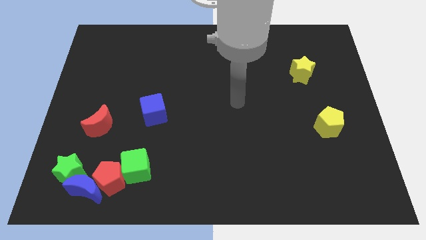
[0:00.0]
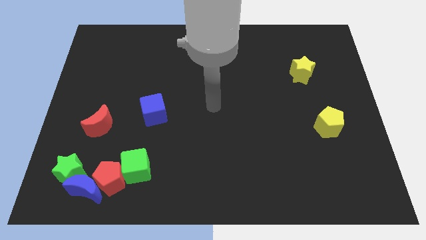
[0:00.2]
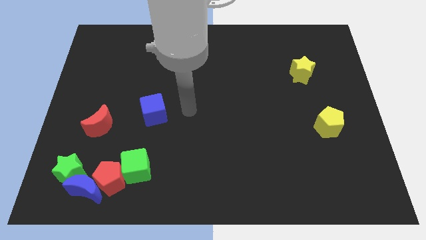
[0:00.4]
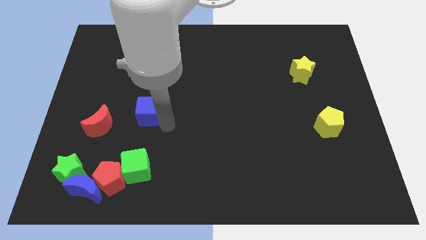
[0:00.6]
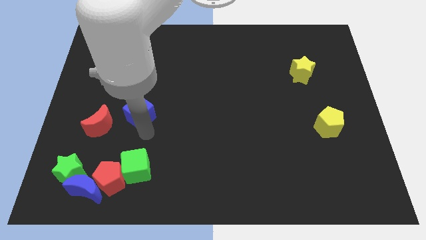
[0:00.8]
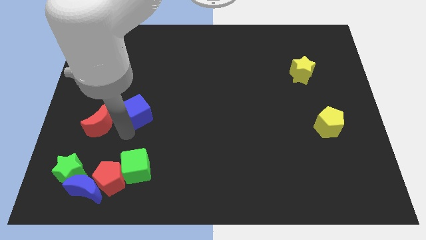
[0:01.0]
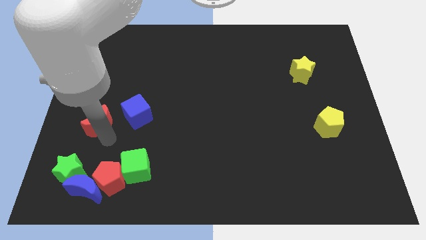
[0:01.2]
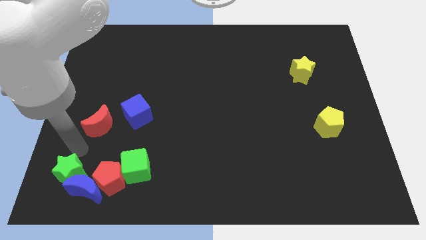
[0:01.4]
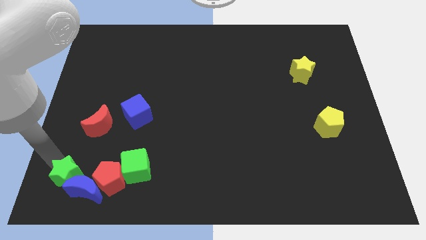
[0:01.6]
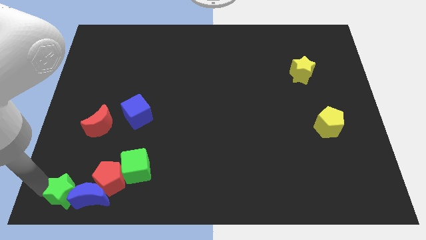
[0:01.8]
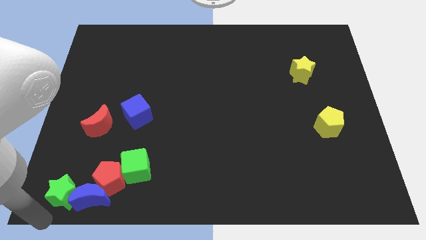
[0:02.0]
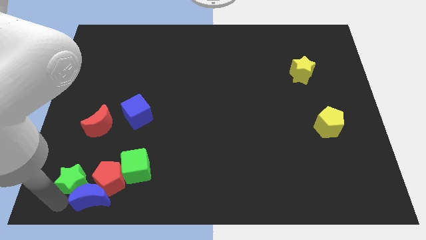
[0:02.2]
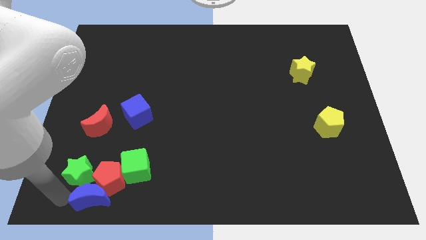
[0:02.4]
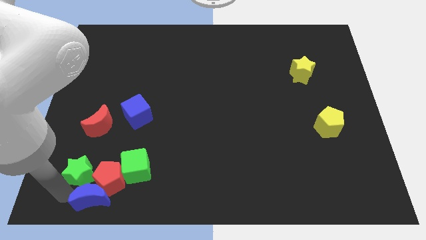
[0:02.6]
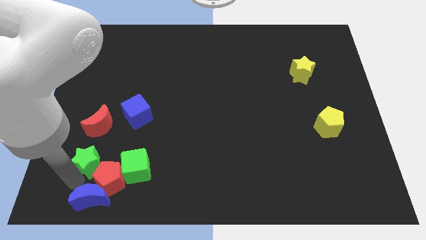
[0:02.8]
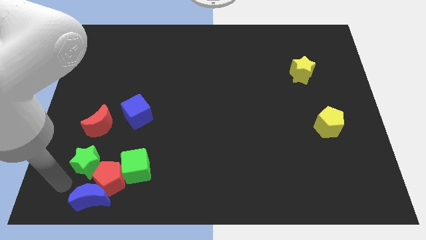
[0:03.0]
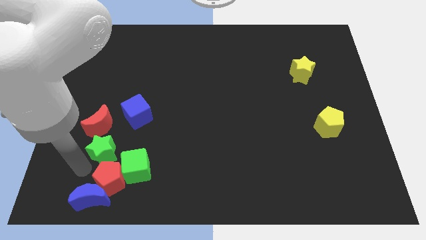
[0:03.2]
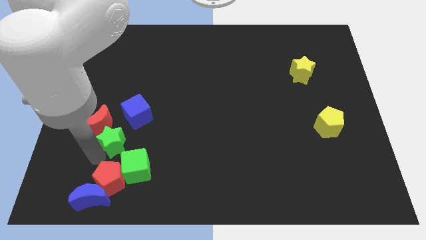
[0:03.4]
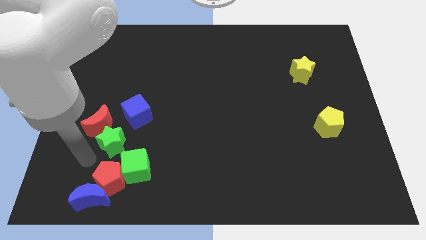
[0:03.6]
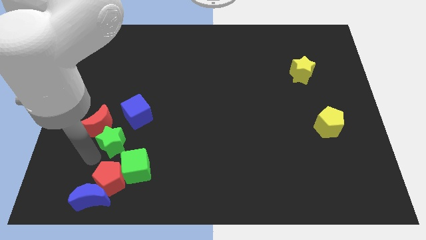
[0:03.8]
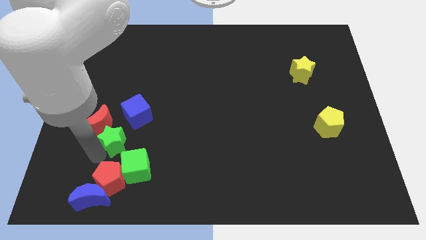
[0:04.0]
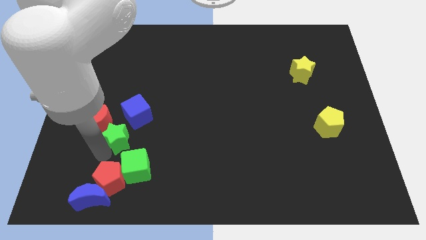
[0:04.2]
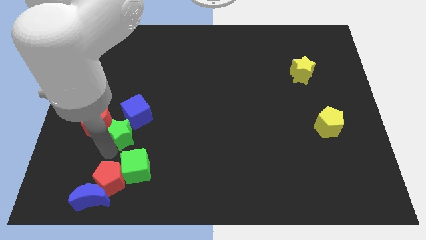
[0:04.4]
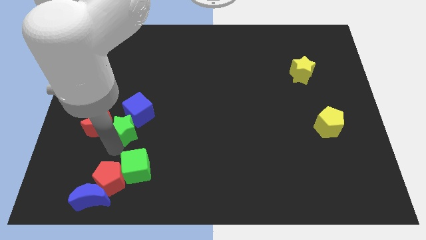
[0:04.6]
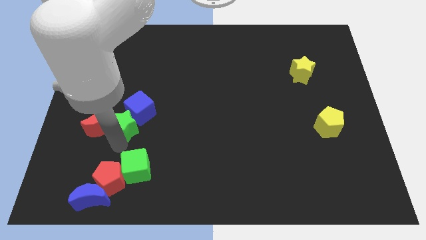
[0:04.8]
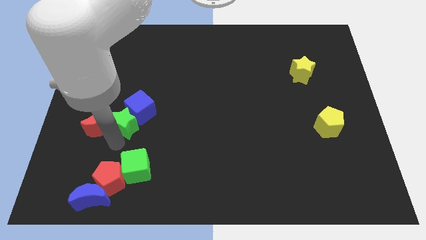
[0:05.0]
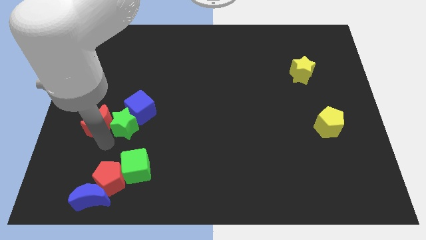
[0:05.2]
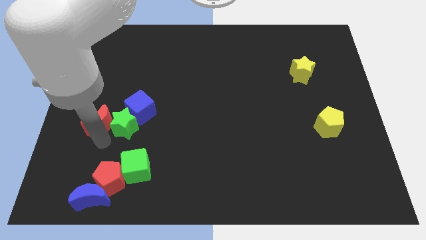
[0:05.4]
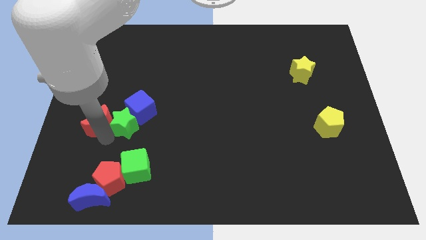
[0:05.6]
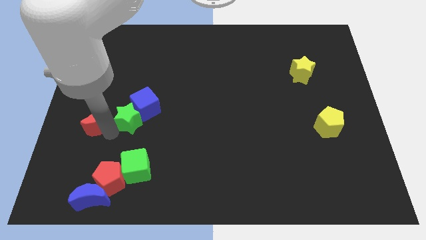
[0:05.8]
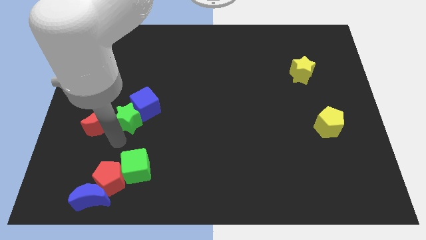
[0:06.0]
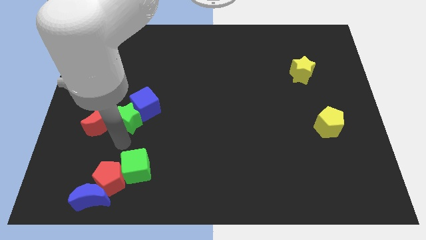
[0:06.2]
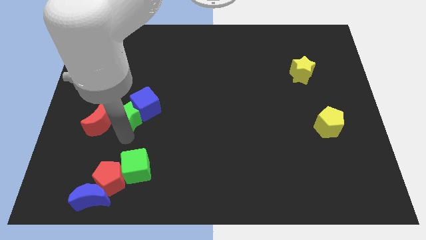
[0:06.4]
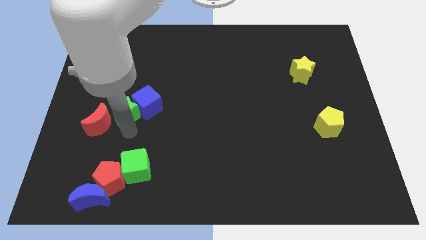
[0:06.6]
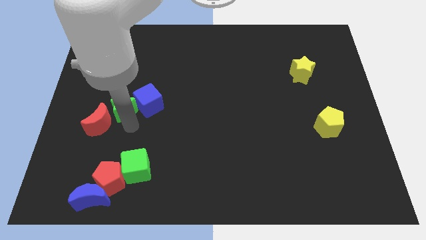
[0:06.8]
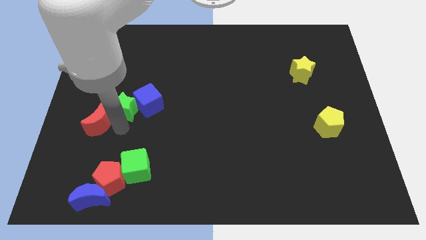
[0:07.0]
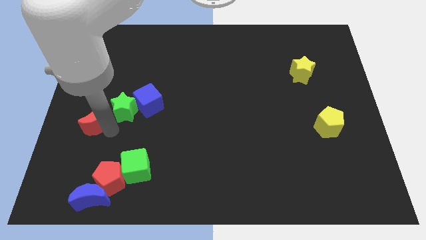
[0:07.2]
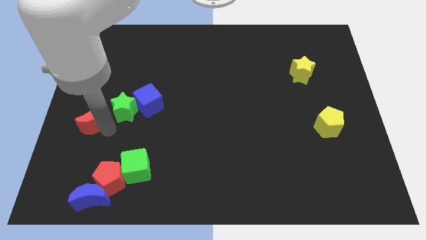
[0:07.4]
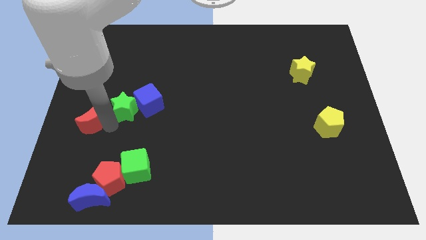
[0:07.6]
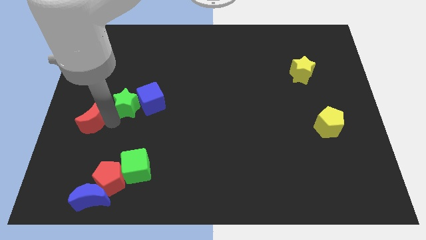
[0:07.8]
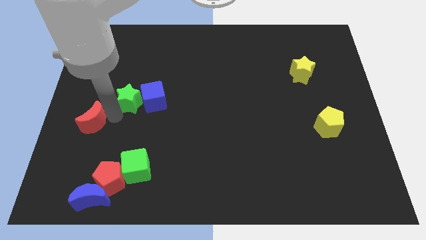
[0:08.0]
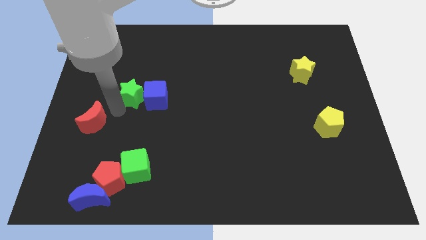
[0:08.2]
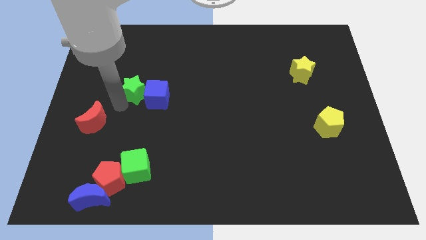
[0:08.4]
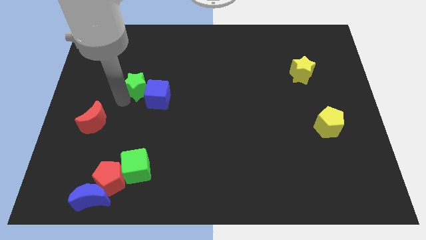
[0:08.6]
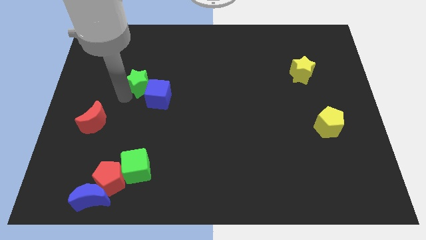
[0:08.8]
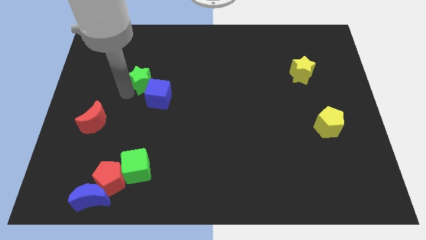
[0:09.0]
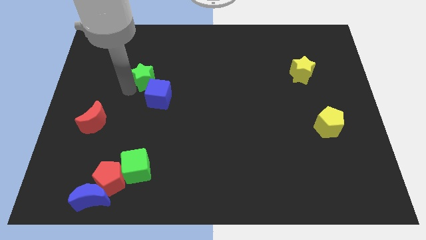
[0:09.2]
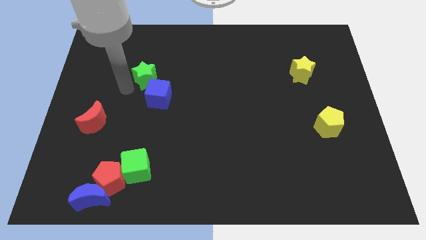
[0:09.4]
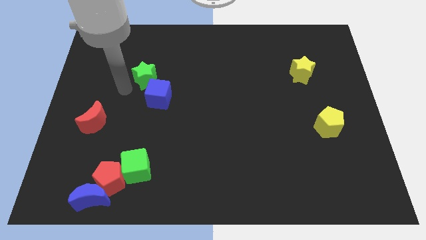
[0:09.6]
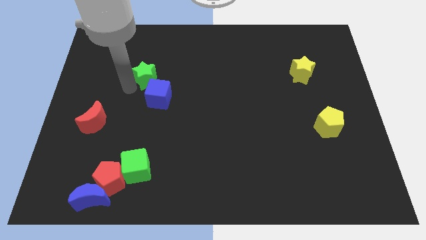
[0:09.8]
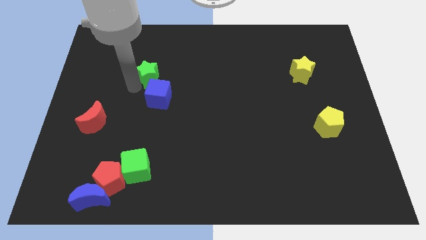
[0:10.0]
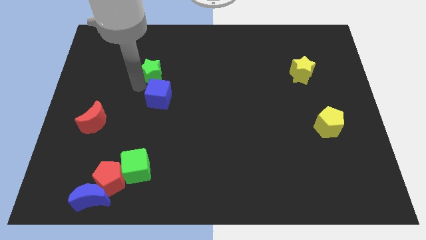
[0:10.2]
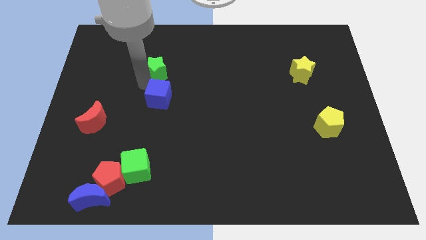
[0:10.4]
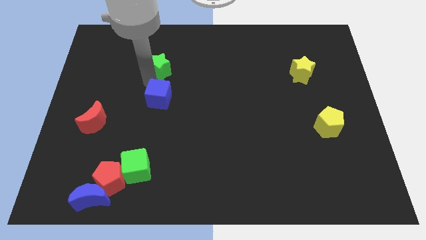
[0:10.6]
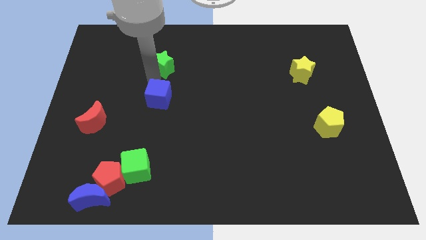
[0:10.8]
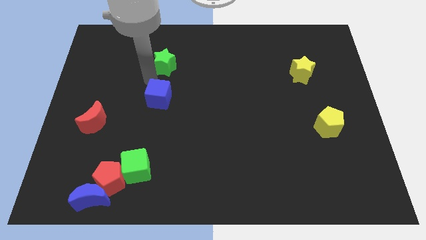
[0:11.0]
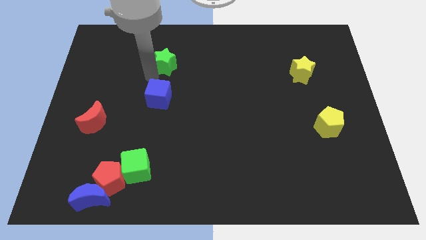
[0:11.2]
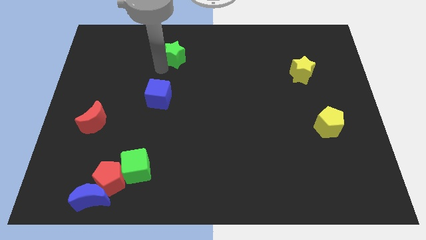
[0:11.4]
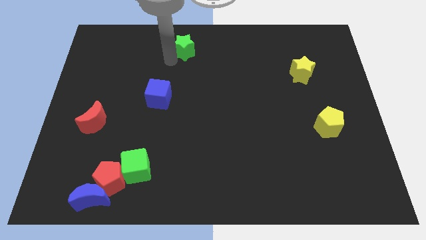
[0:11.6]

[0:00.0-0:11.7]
push the green star to the top side
